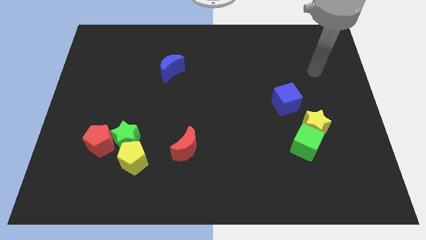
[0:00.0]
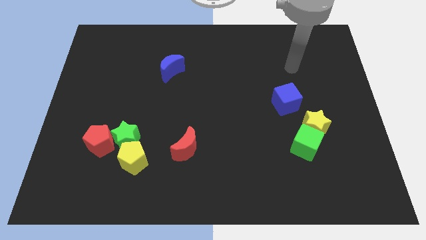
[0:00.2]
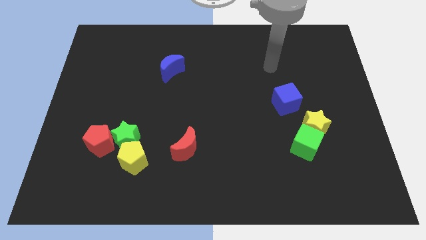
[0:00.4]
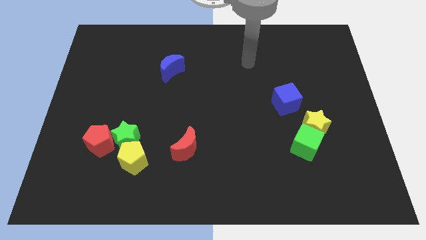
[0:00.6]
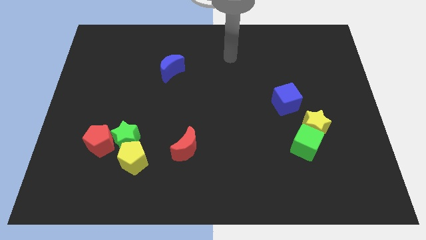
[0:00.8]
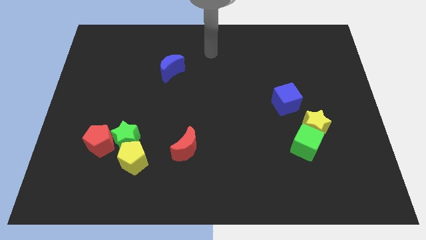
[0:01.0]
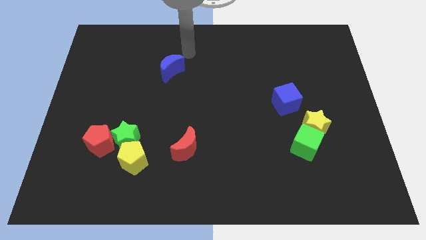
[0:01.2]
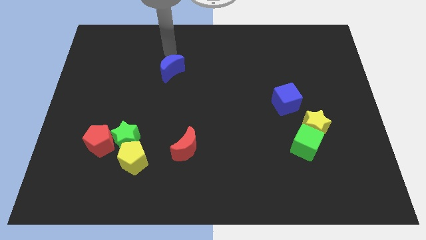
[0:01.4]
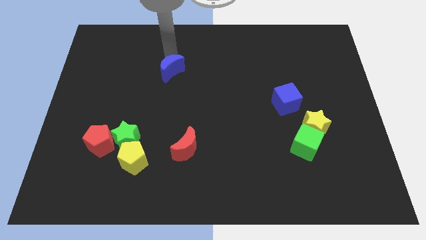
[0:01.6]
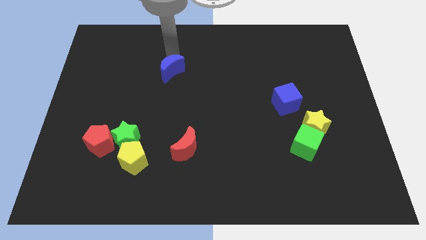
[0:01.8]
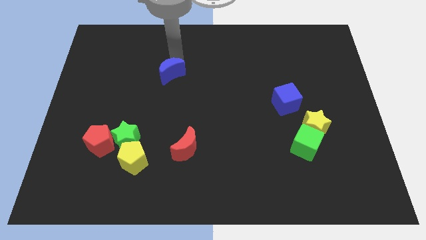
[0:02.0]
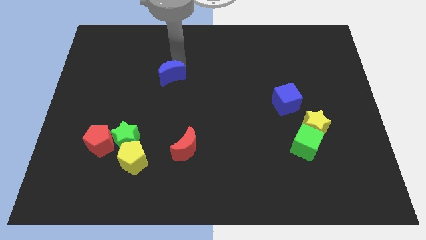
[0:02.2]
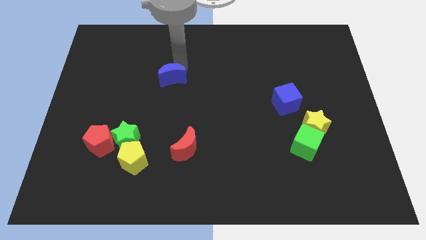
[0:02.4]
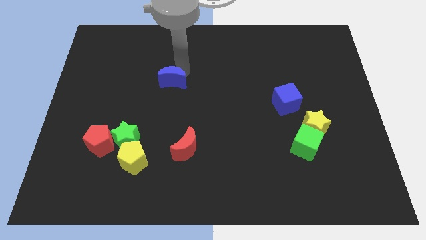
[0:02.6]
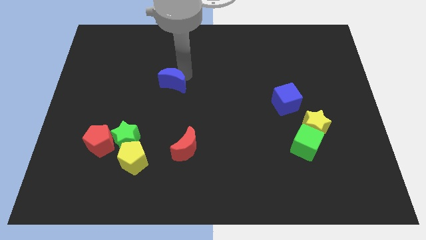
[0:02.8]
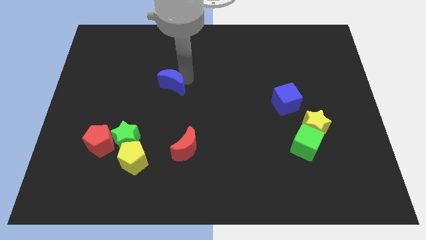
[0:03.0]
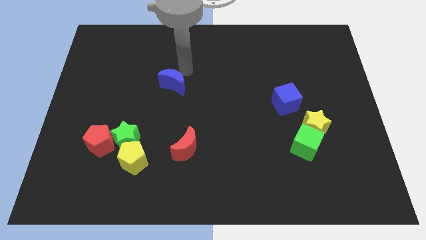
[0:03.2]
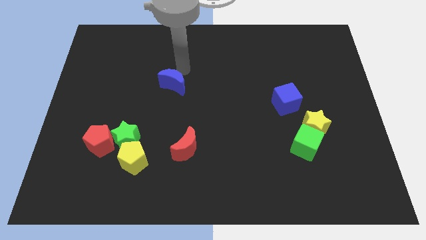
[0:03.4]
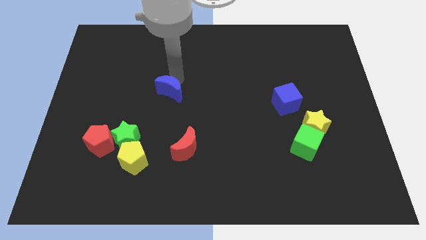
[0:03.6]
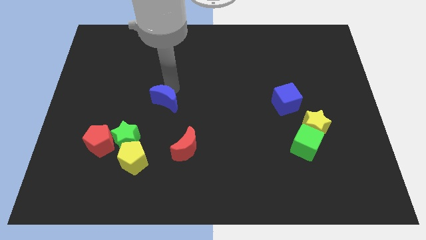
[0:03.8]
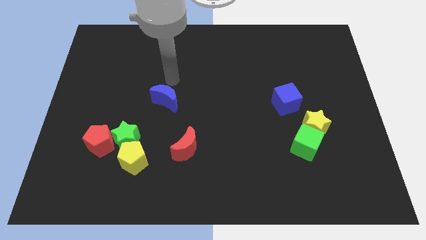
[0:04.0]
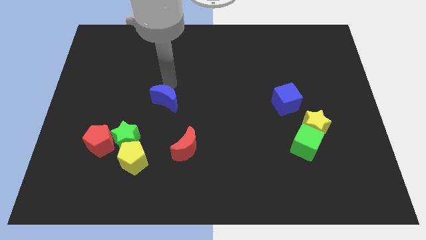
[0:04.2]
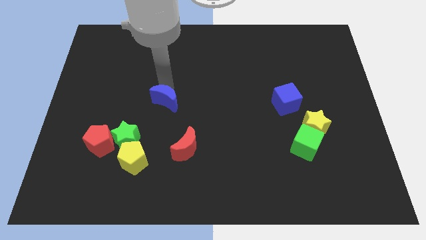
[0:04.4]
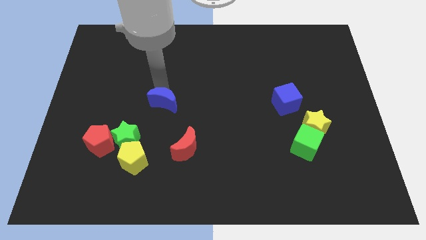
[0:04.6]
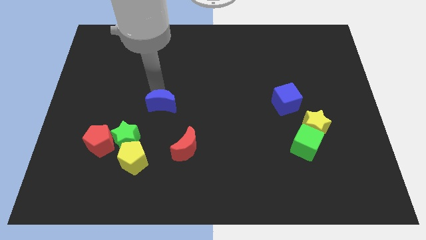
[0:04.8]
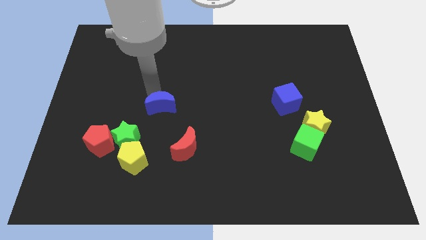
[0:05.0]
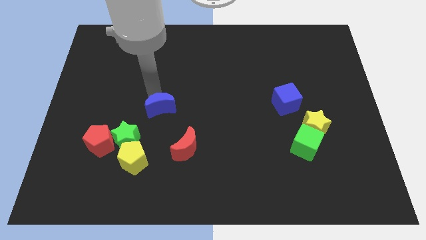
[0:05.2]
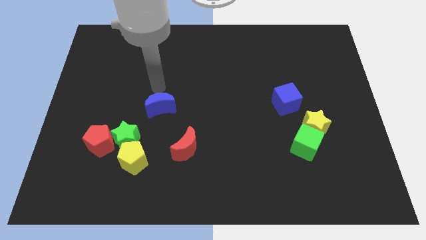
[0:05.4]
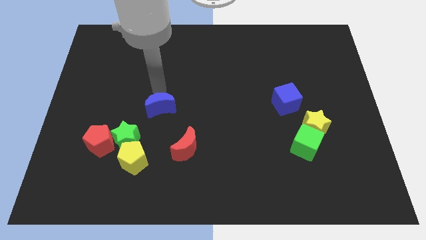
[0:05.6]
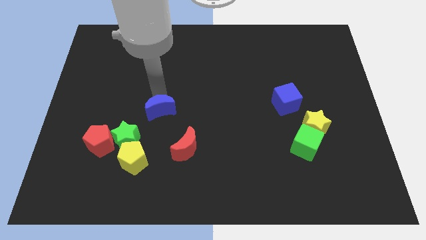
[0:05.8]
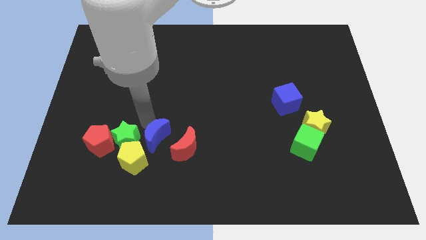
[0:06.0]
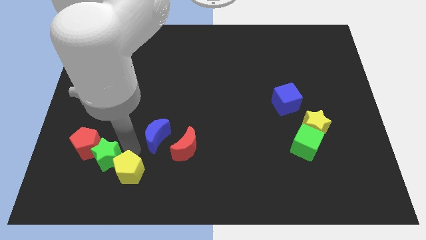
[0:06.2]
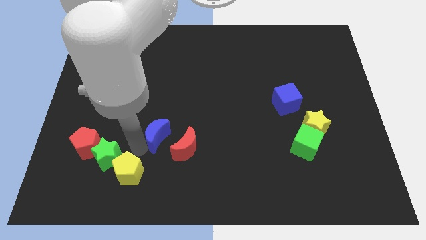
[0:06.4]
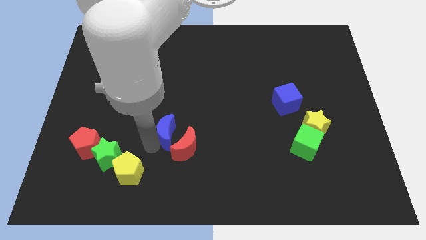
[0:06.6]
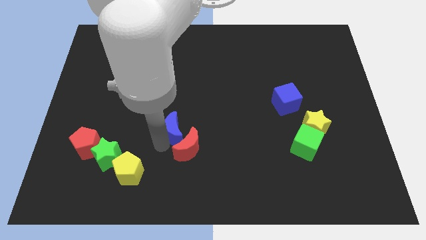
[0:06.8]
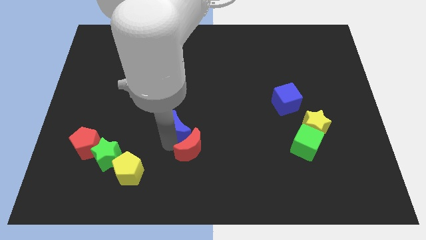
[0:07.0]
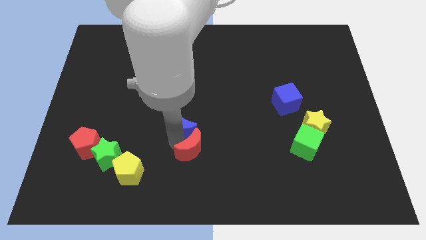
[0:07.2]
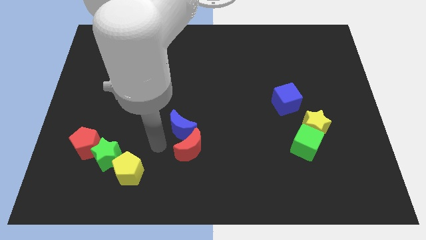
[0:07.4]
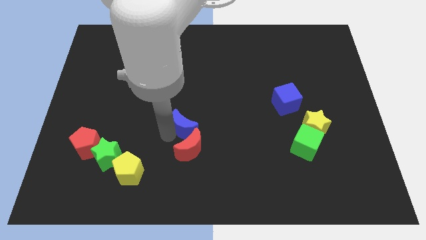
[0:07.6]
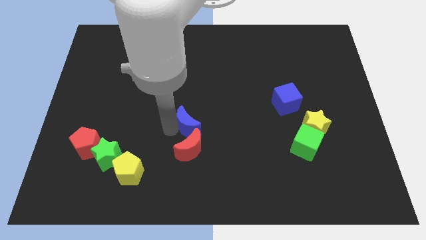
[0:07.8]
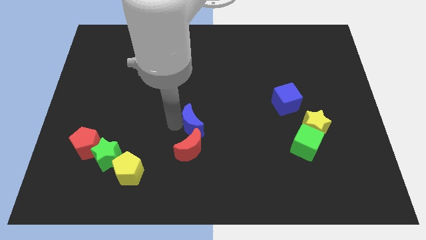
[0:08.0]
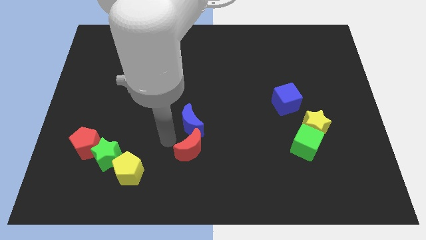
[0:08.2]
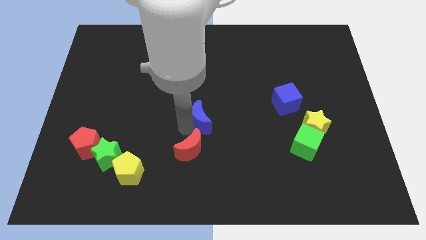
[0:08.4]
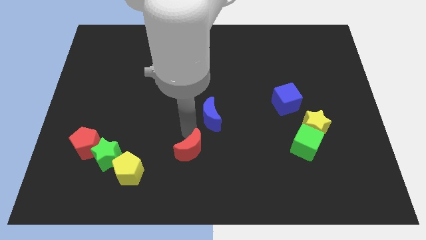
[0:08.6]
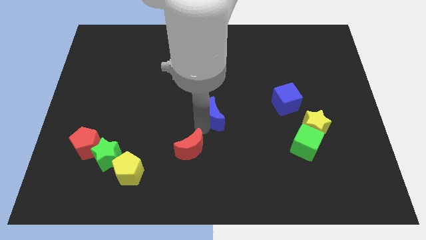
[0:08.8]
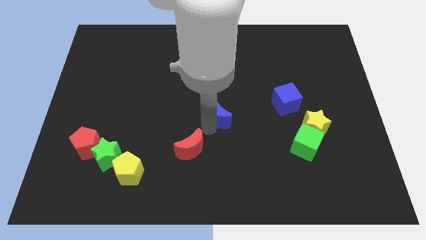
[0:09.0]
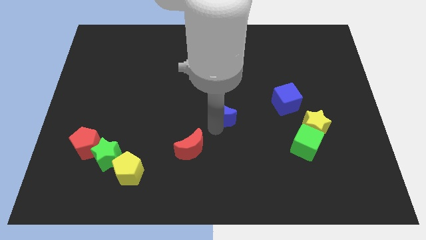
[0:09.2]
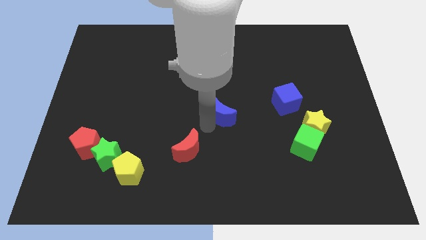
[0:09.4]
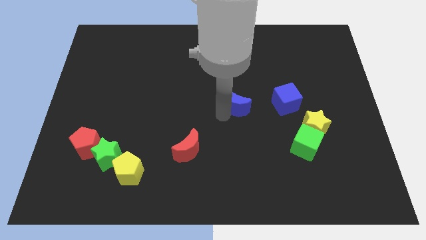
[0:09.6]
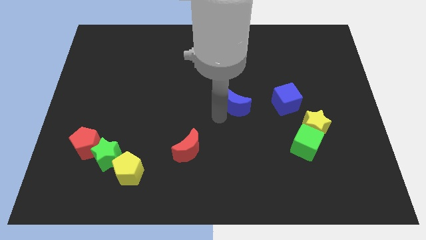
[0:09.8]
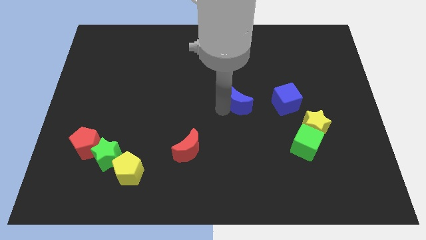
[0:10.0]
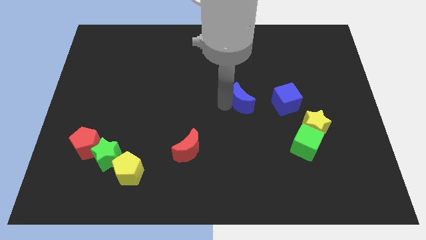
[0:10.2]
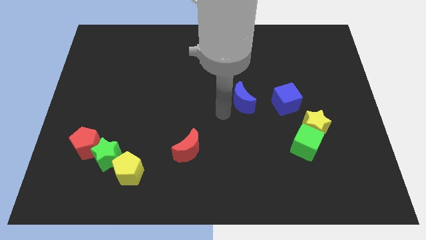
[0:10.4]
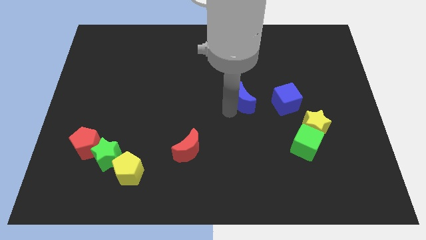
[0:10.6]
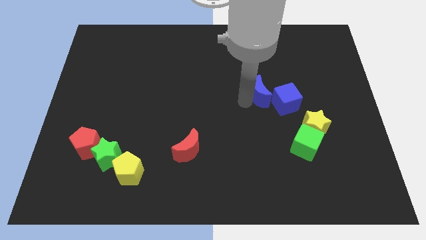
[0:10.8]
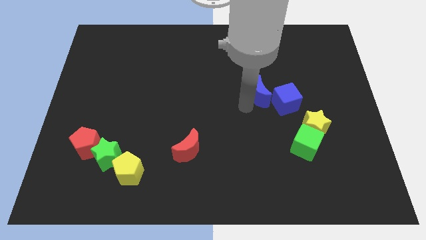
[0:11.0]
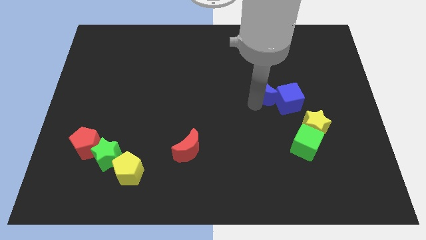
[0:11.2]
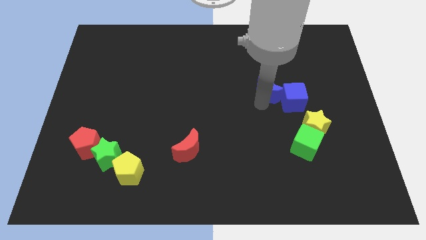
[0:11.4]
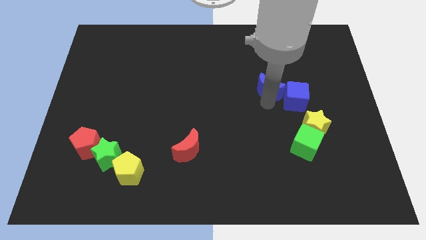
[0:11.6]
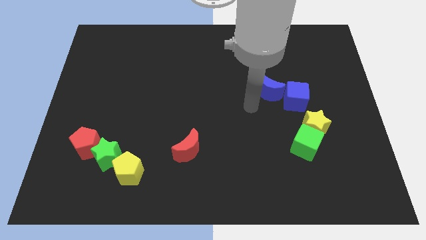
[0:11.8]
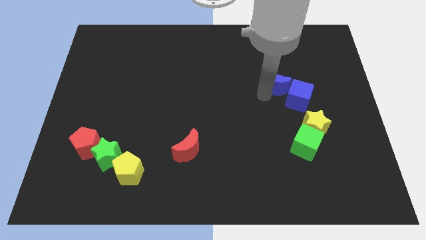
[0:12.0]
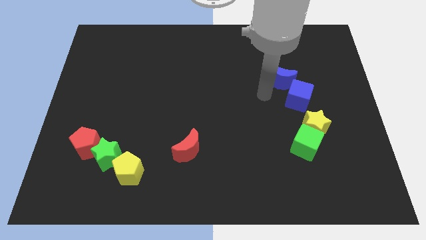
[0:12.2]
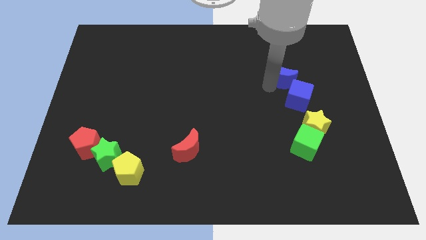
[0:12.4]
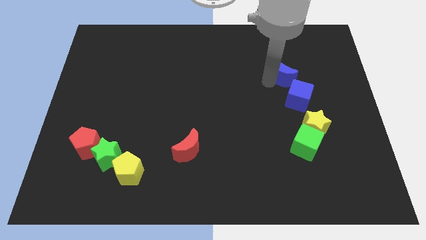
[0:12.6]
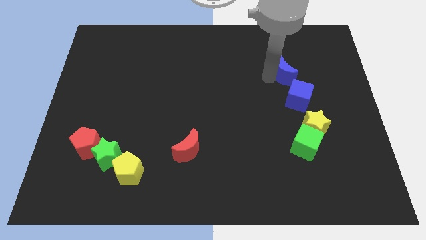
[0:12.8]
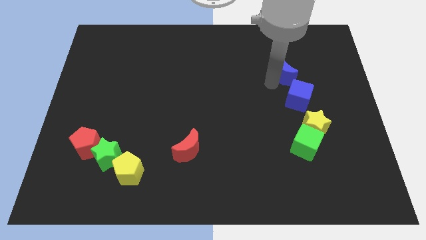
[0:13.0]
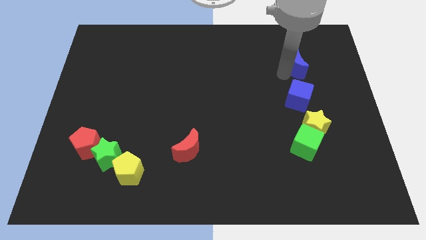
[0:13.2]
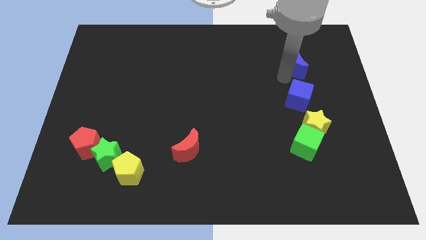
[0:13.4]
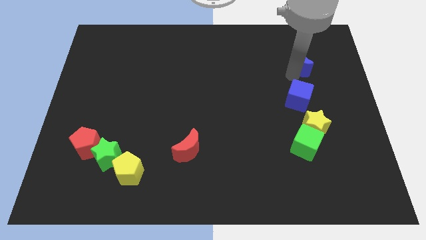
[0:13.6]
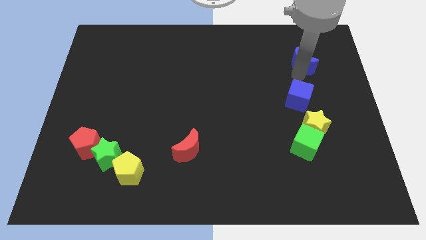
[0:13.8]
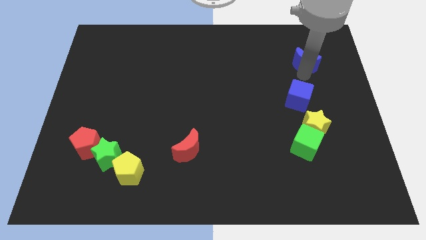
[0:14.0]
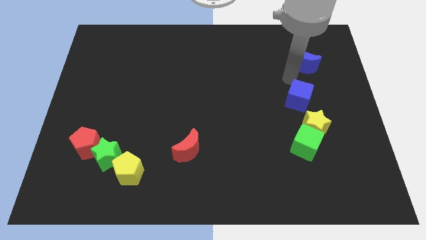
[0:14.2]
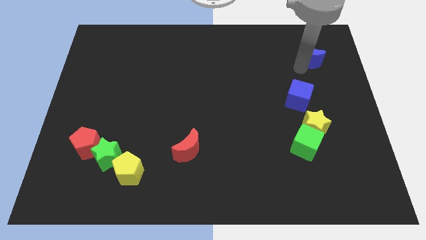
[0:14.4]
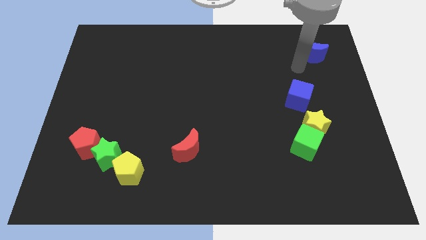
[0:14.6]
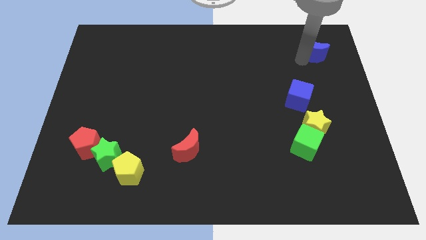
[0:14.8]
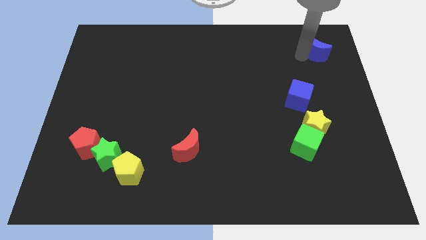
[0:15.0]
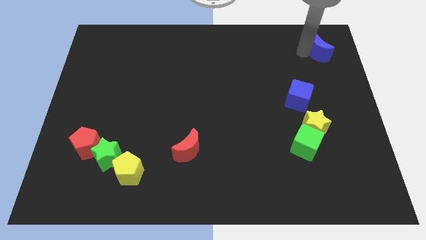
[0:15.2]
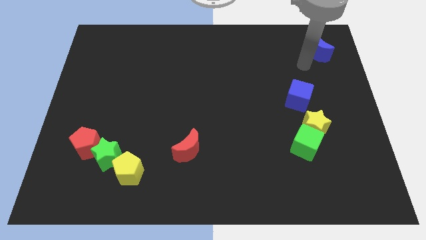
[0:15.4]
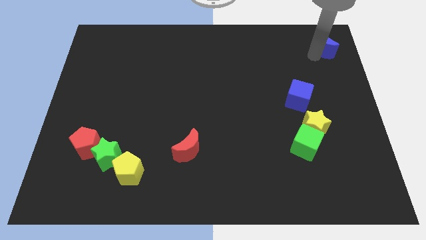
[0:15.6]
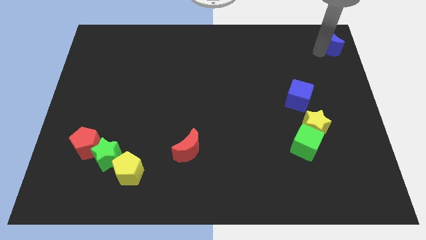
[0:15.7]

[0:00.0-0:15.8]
push the blue moon to the upper right corner
